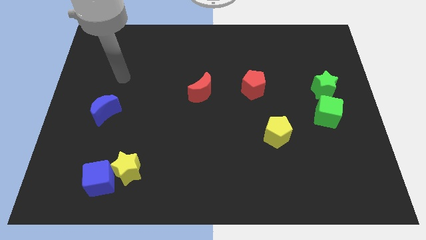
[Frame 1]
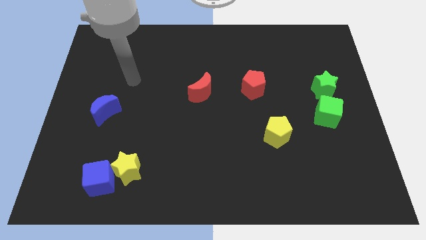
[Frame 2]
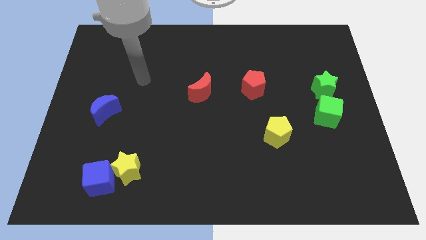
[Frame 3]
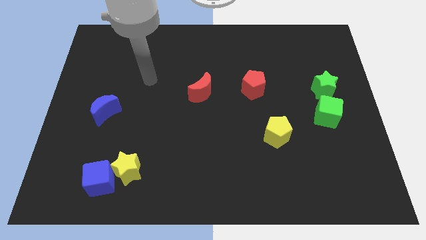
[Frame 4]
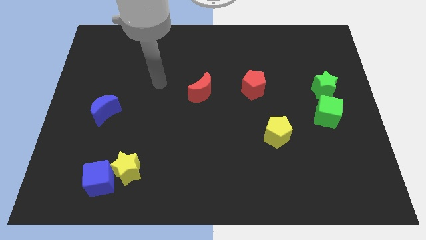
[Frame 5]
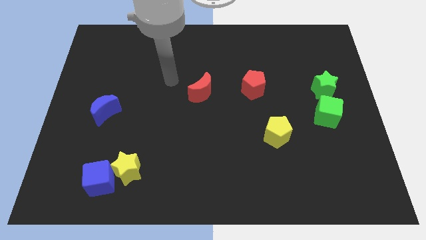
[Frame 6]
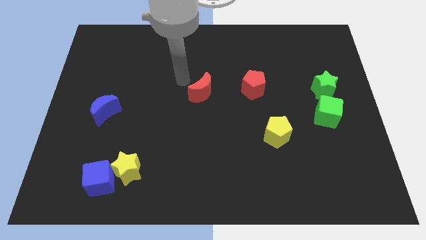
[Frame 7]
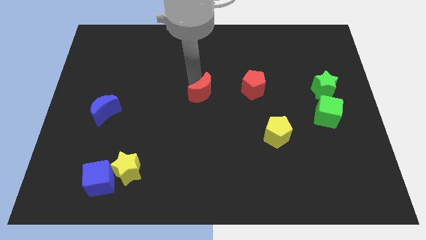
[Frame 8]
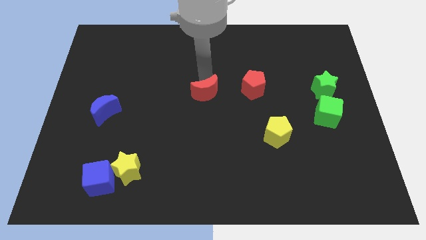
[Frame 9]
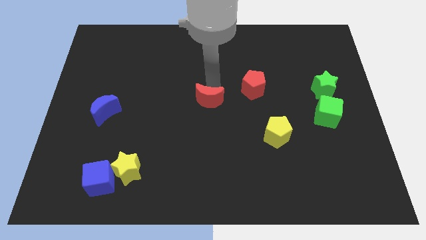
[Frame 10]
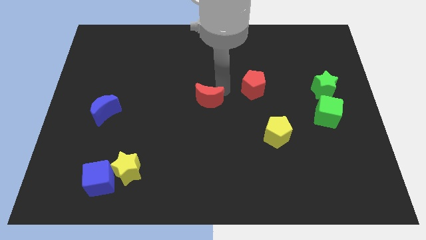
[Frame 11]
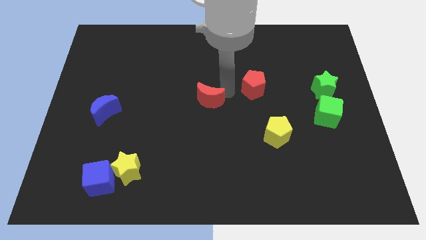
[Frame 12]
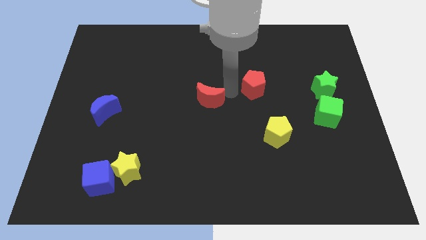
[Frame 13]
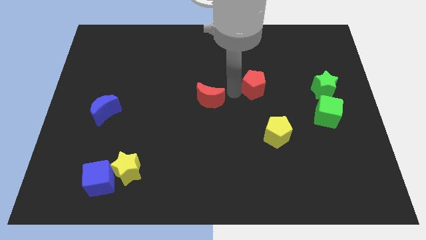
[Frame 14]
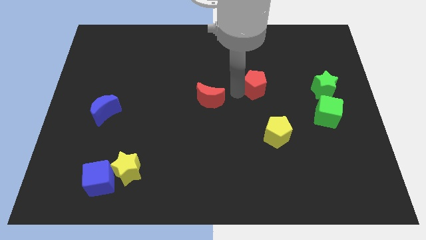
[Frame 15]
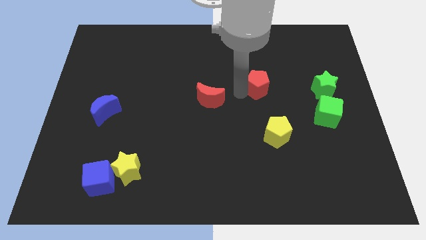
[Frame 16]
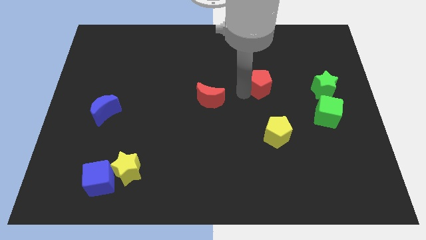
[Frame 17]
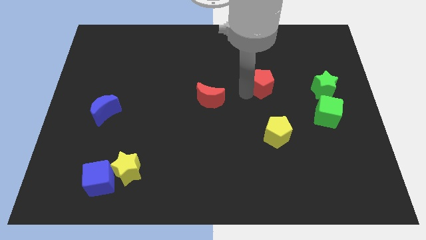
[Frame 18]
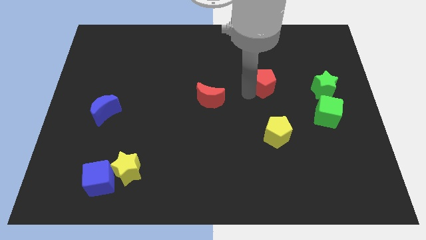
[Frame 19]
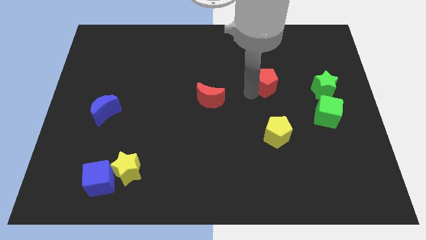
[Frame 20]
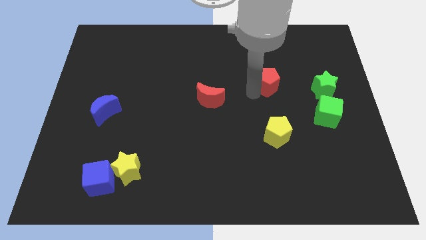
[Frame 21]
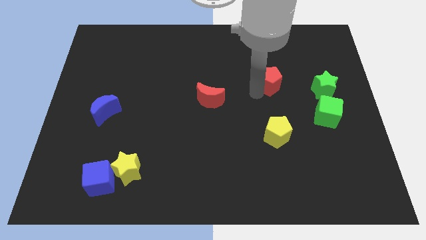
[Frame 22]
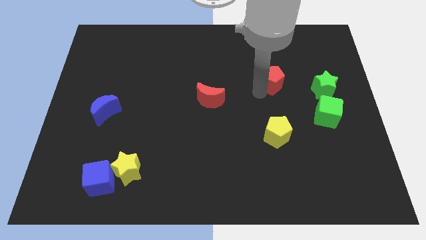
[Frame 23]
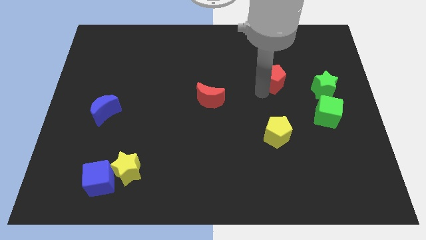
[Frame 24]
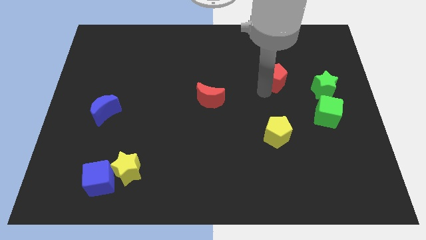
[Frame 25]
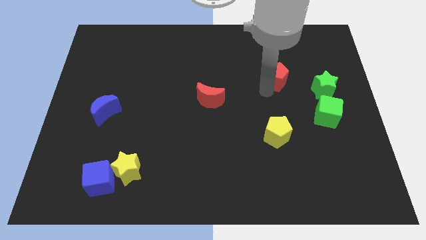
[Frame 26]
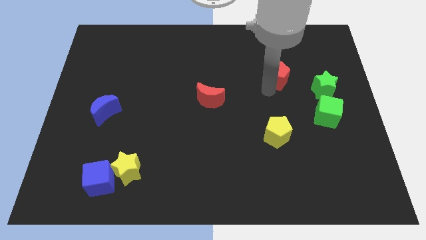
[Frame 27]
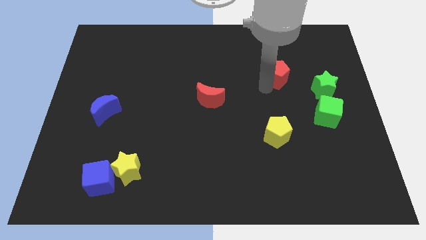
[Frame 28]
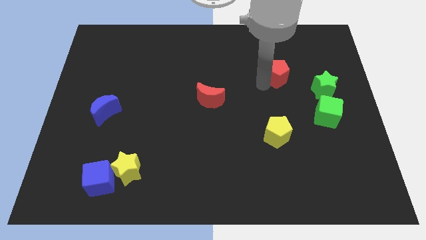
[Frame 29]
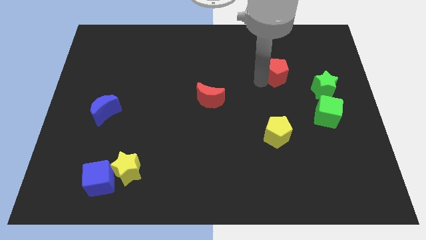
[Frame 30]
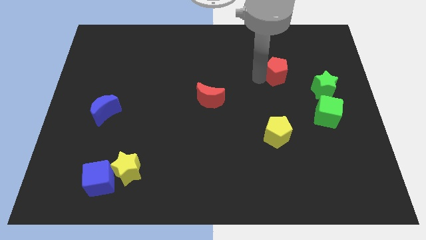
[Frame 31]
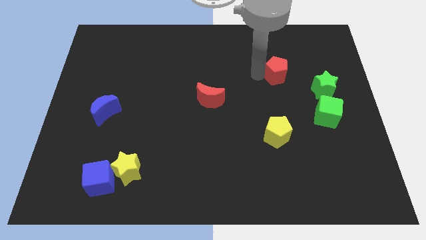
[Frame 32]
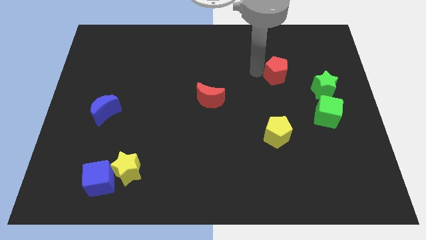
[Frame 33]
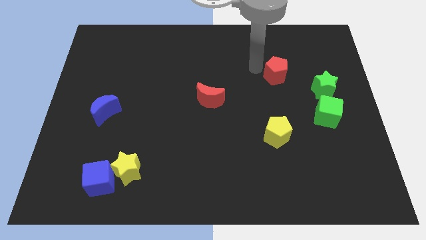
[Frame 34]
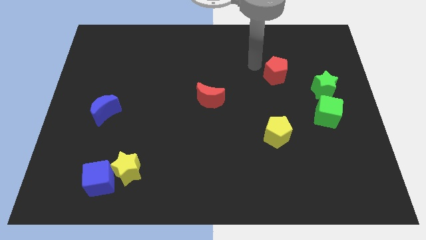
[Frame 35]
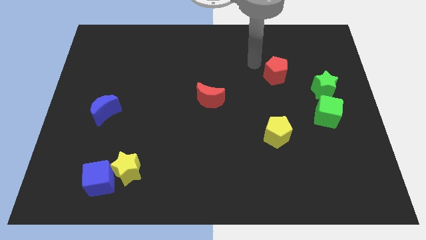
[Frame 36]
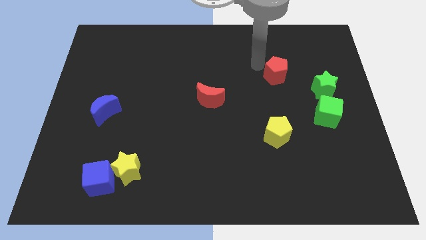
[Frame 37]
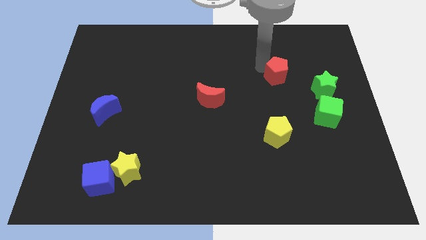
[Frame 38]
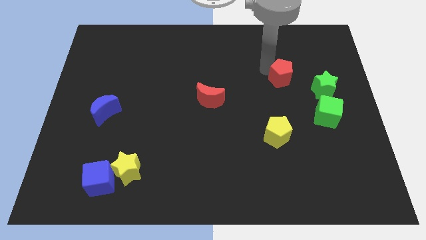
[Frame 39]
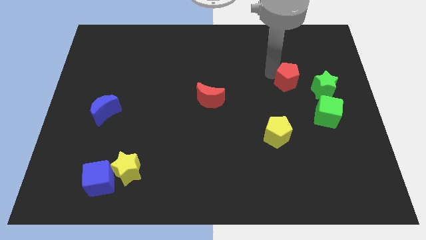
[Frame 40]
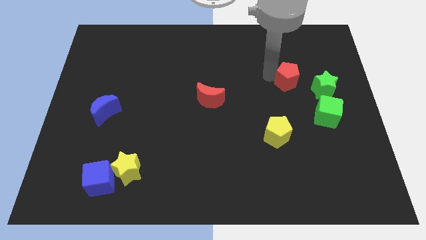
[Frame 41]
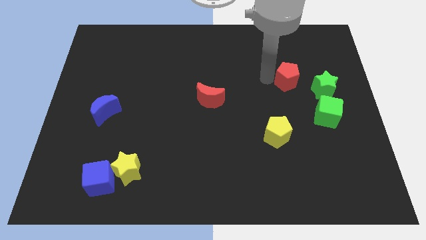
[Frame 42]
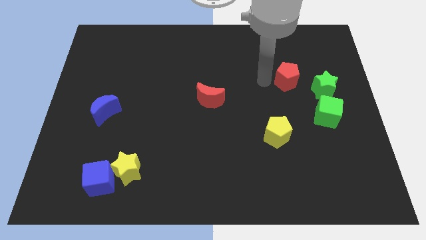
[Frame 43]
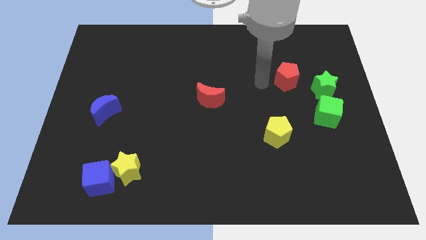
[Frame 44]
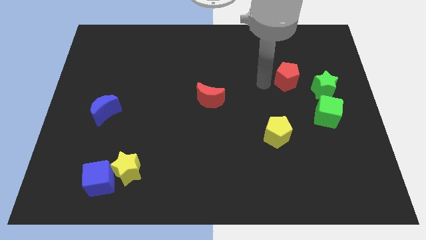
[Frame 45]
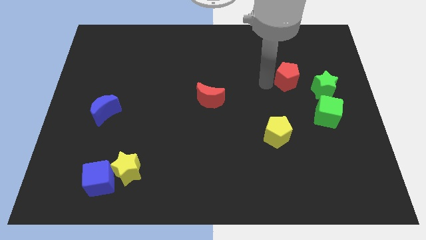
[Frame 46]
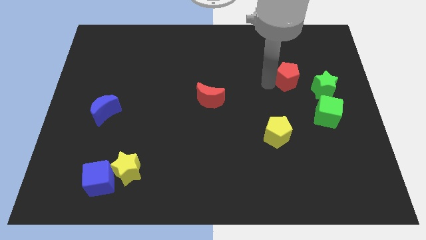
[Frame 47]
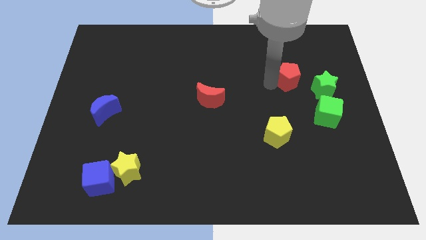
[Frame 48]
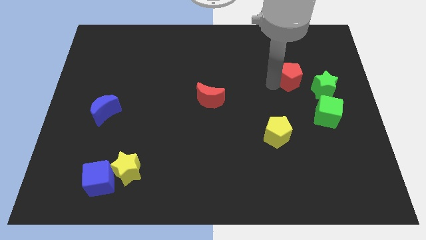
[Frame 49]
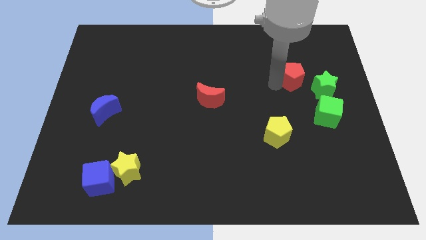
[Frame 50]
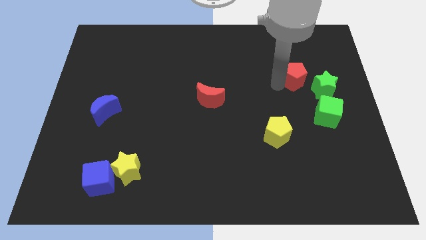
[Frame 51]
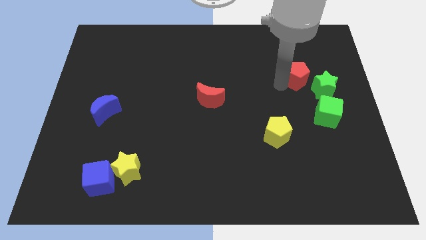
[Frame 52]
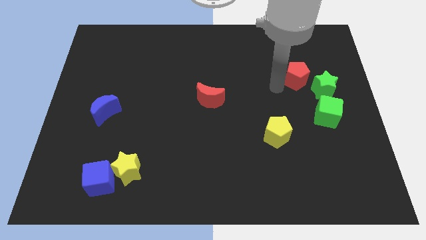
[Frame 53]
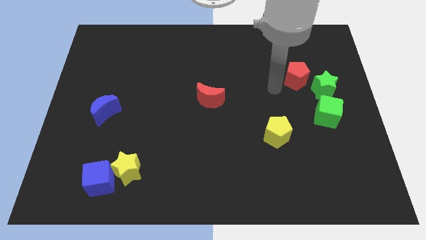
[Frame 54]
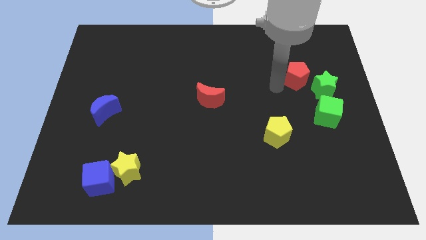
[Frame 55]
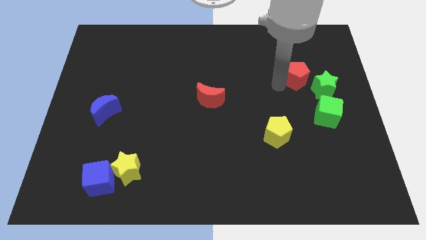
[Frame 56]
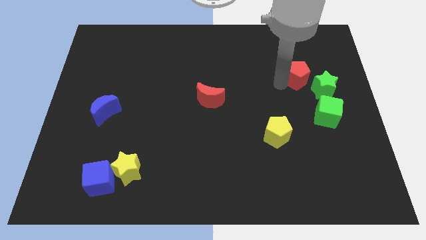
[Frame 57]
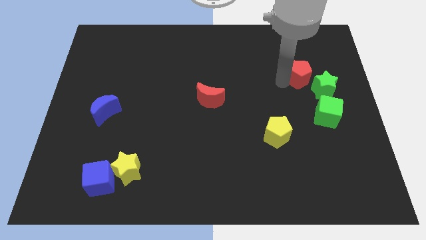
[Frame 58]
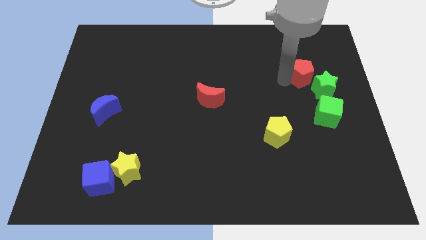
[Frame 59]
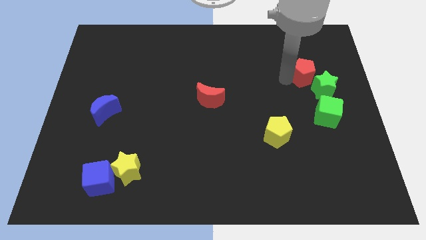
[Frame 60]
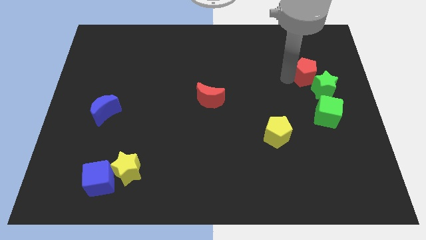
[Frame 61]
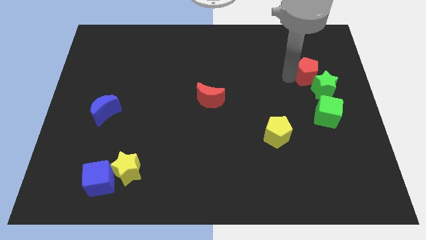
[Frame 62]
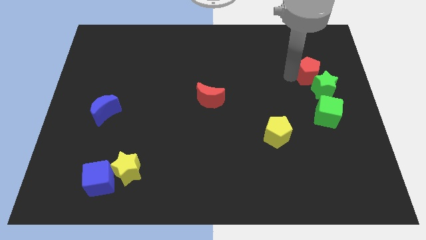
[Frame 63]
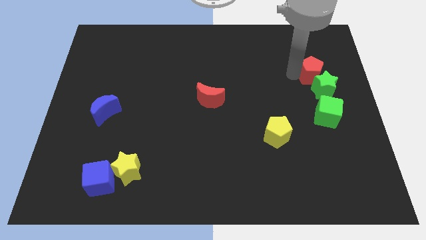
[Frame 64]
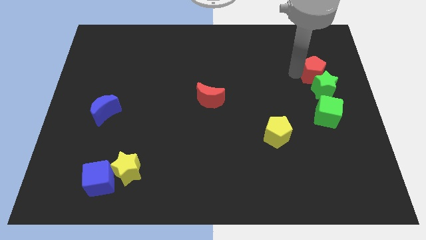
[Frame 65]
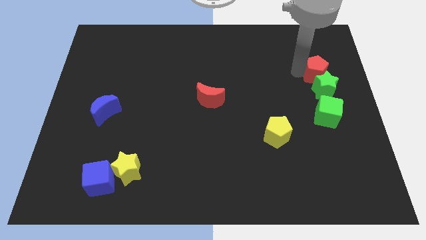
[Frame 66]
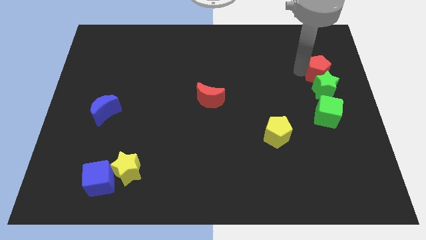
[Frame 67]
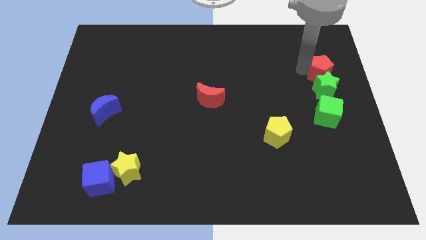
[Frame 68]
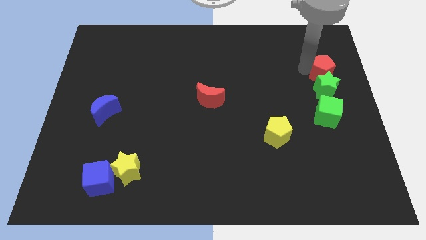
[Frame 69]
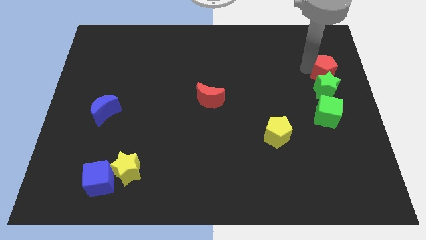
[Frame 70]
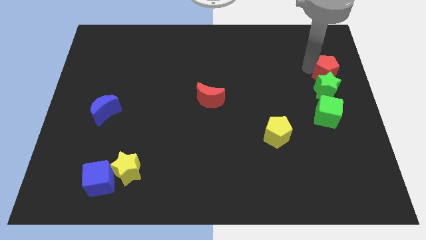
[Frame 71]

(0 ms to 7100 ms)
slide the red pentagon to the right side
